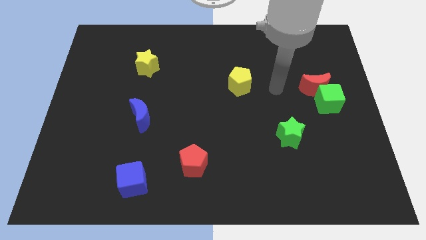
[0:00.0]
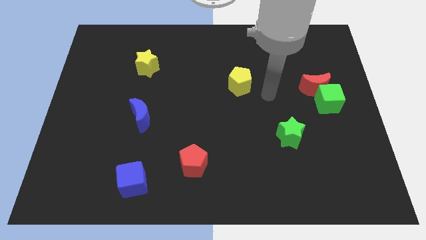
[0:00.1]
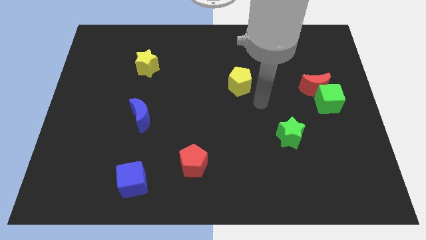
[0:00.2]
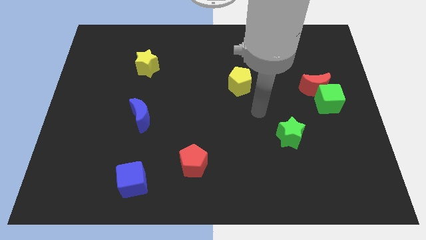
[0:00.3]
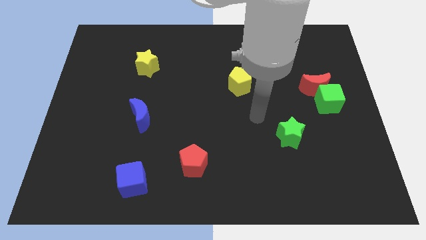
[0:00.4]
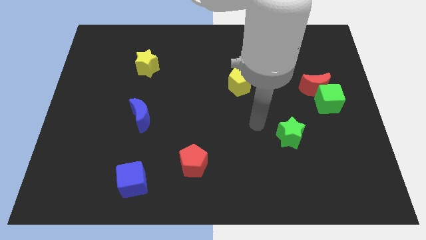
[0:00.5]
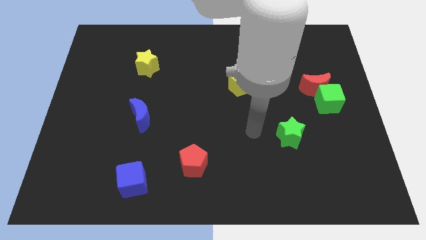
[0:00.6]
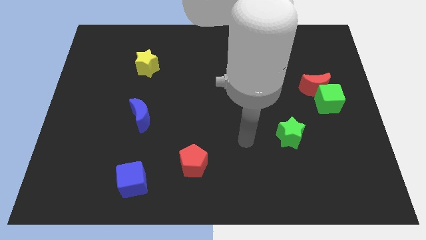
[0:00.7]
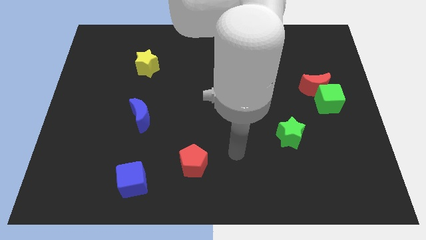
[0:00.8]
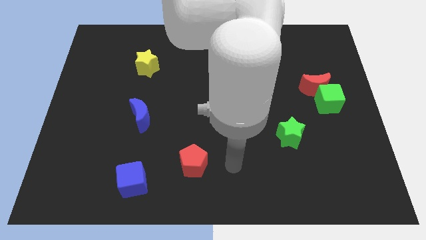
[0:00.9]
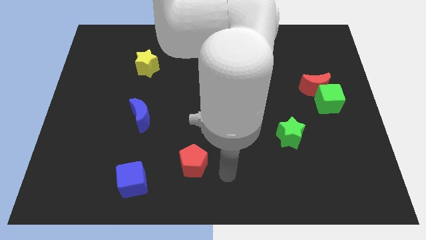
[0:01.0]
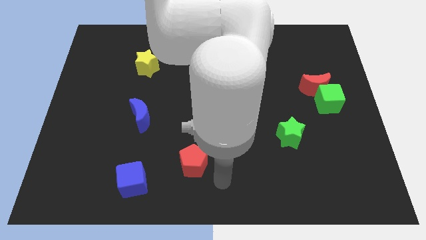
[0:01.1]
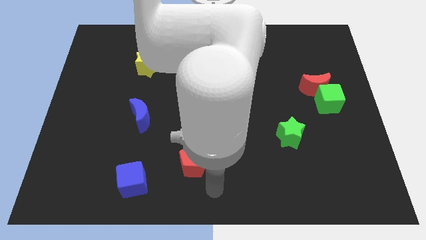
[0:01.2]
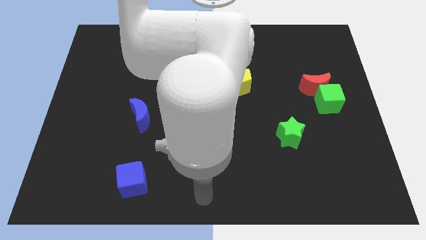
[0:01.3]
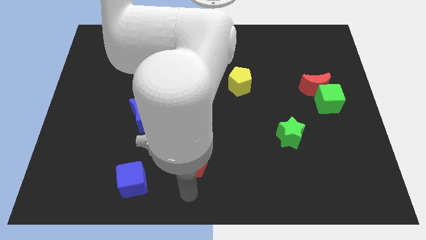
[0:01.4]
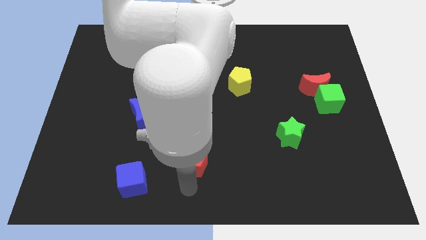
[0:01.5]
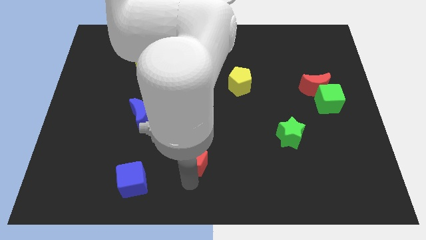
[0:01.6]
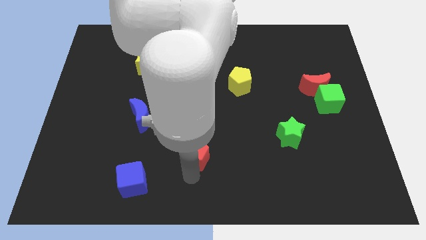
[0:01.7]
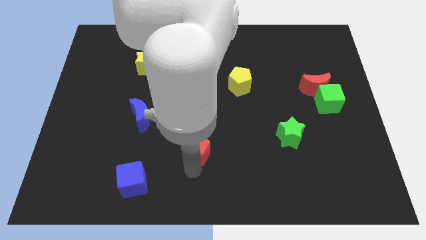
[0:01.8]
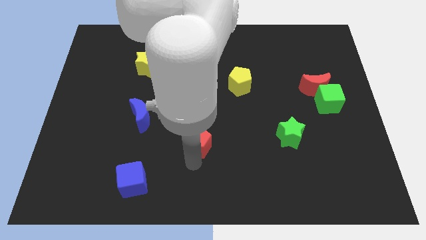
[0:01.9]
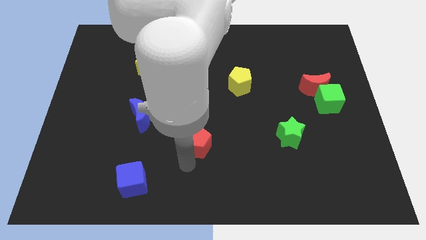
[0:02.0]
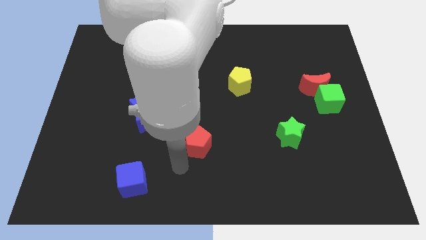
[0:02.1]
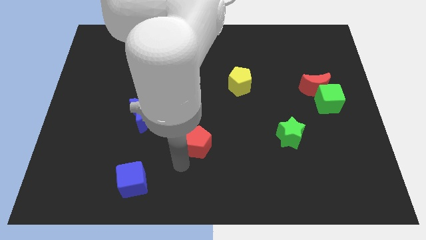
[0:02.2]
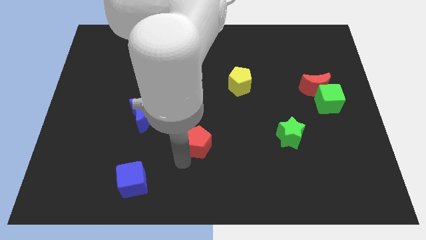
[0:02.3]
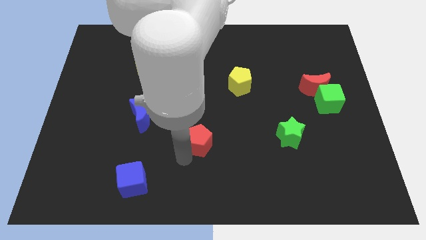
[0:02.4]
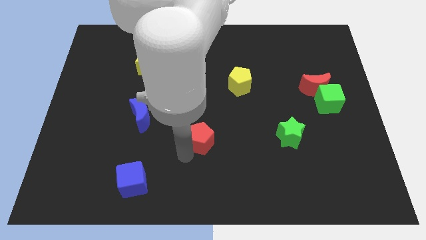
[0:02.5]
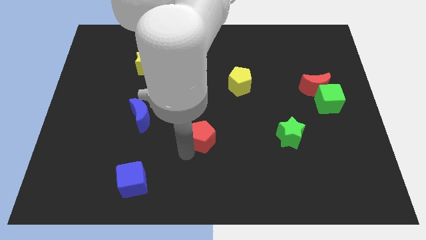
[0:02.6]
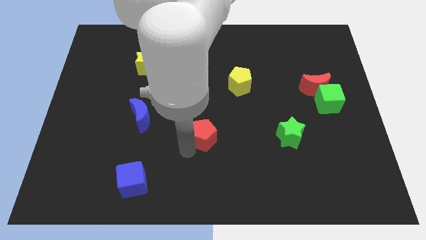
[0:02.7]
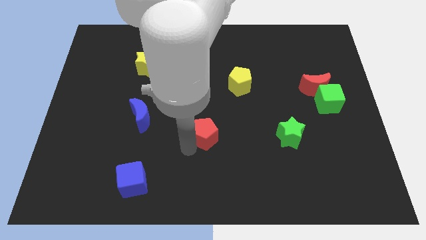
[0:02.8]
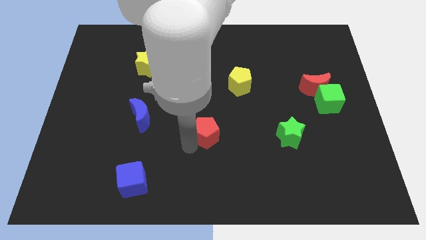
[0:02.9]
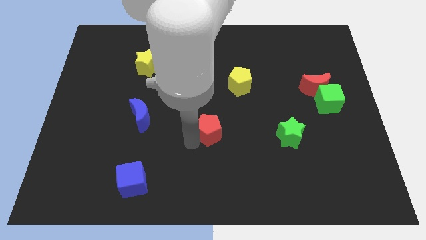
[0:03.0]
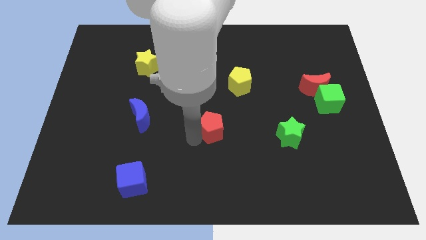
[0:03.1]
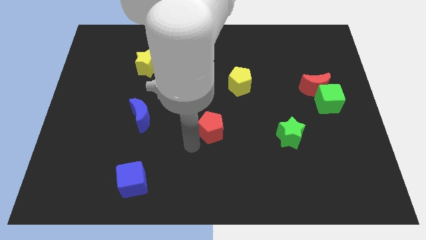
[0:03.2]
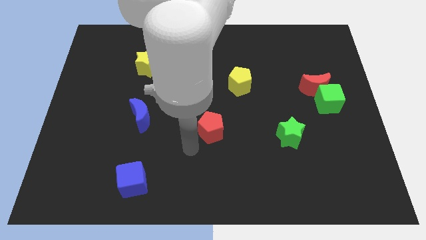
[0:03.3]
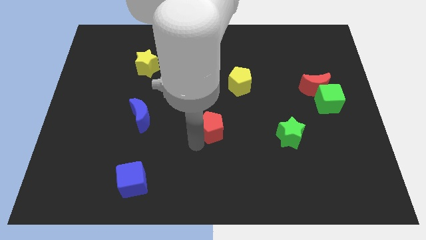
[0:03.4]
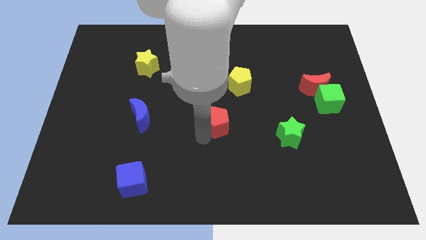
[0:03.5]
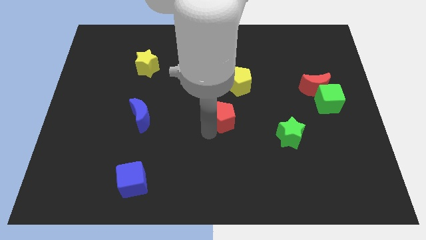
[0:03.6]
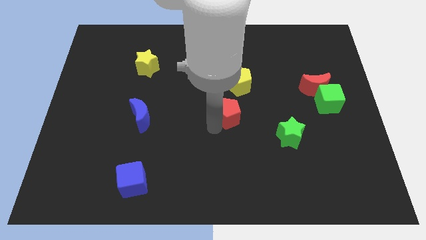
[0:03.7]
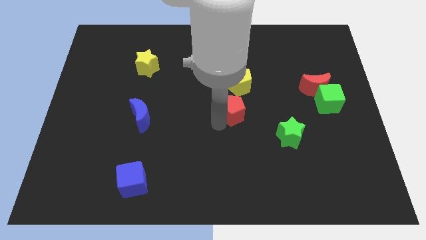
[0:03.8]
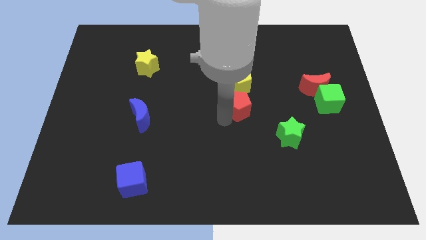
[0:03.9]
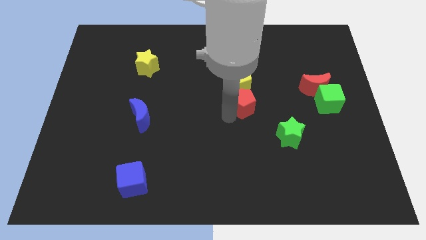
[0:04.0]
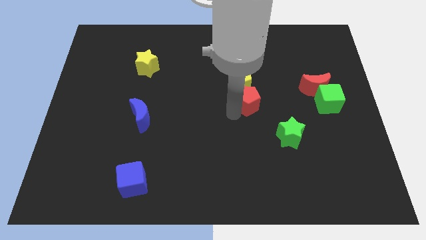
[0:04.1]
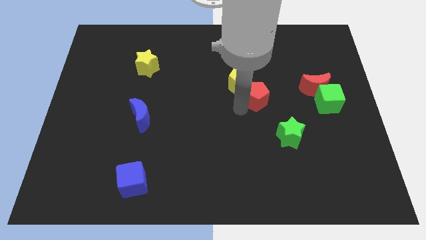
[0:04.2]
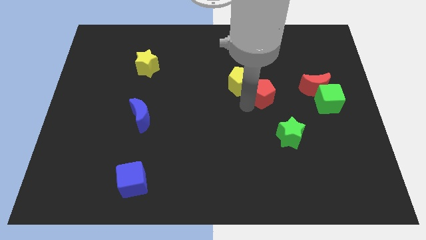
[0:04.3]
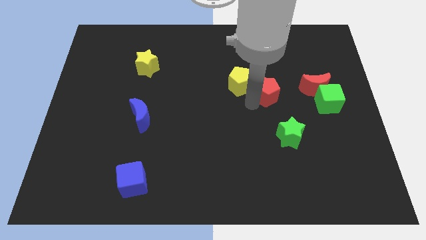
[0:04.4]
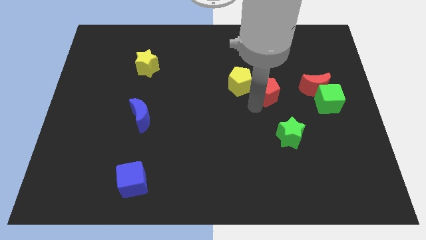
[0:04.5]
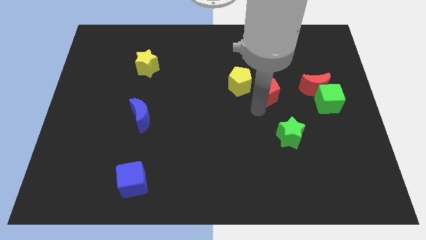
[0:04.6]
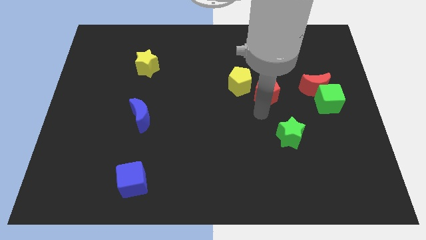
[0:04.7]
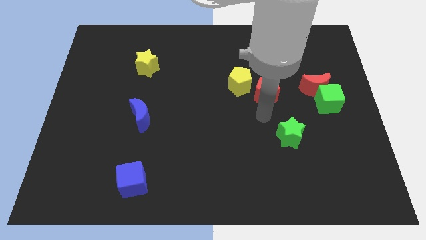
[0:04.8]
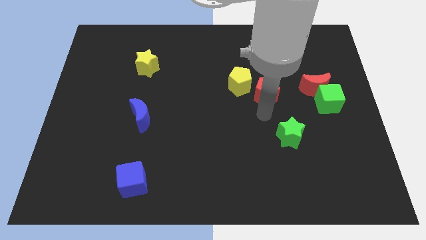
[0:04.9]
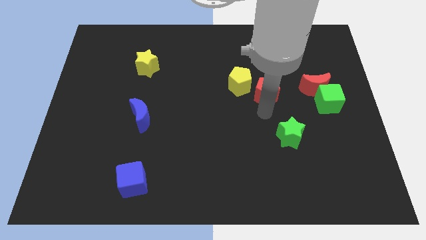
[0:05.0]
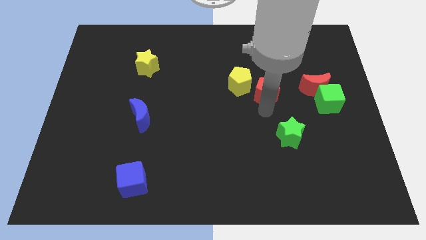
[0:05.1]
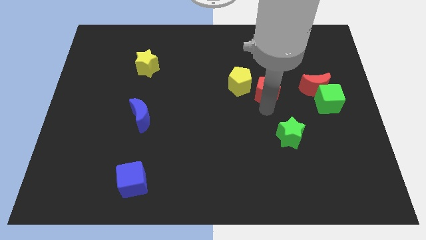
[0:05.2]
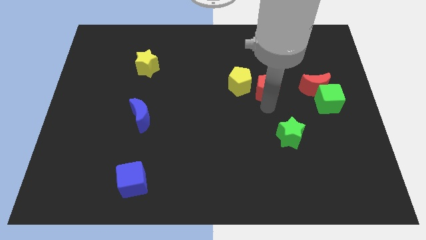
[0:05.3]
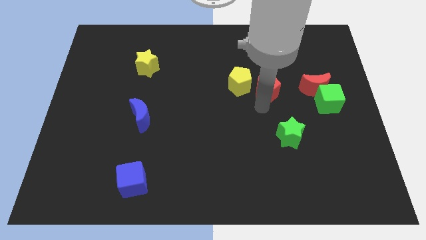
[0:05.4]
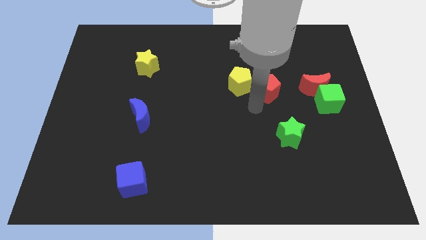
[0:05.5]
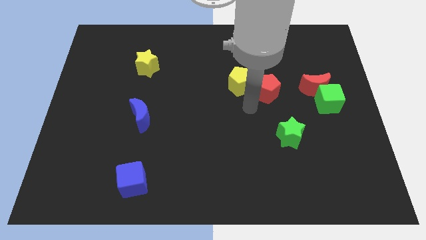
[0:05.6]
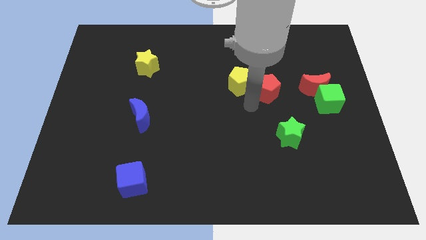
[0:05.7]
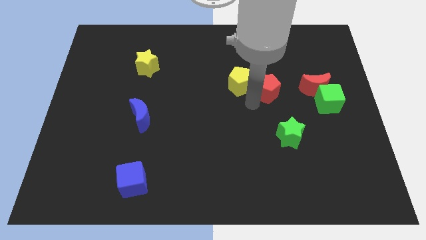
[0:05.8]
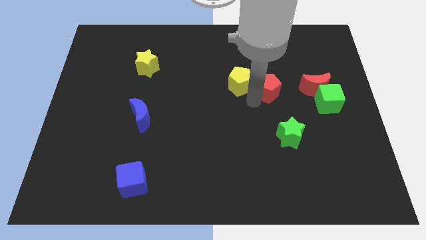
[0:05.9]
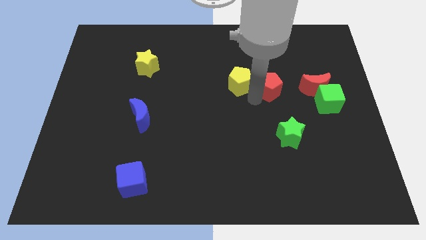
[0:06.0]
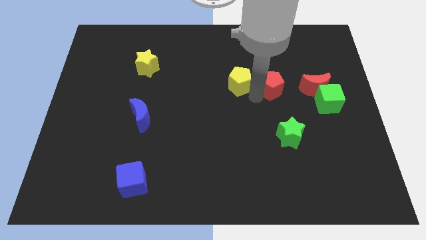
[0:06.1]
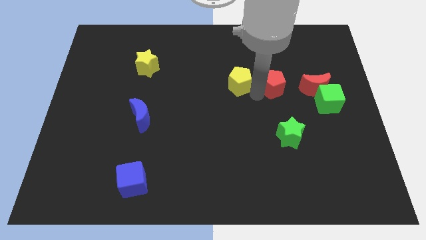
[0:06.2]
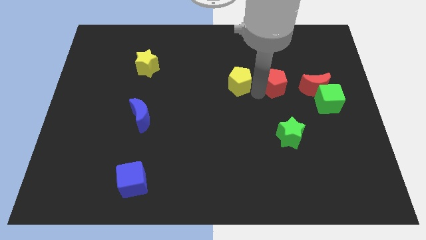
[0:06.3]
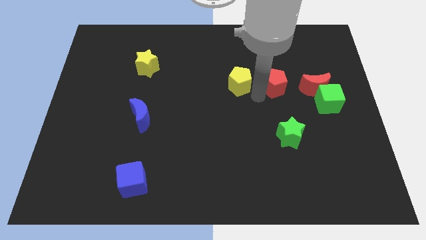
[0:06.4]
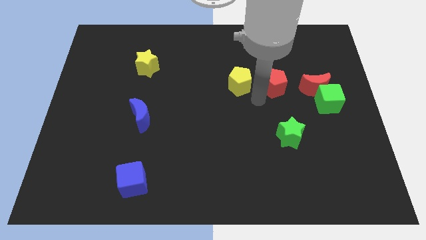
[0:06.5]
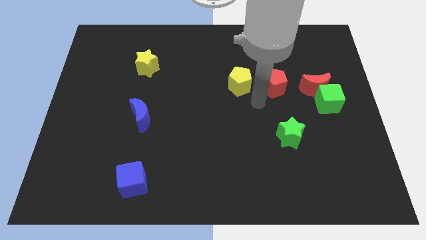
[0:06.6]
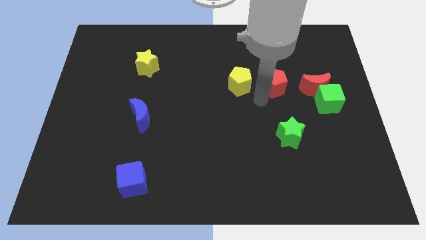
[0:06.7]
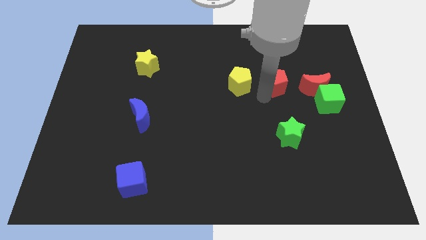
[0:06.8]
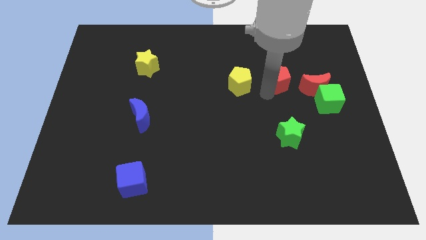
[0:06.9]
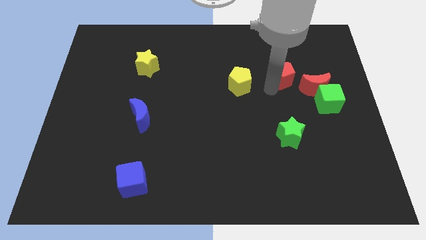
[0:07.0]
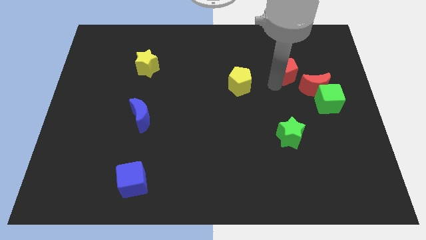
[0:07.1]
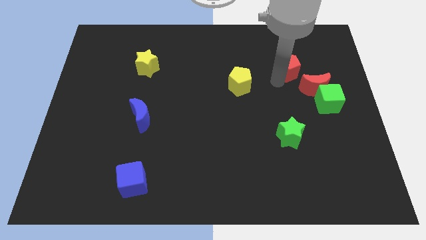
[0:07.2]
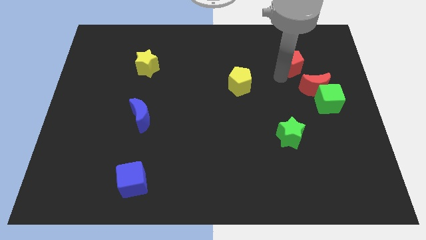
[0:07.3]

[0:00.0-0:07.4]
put the red pentagon to the top of the red moon
